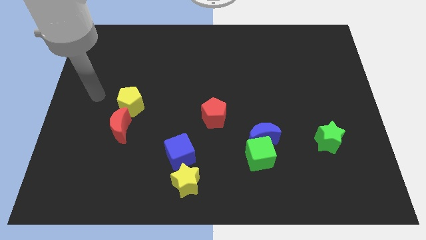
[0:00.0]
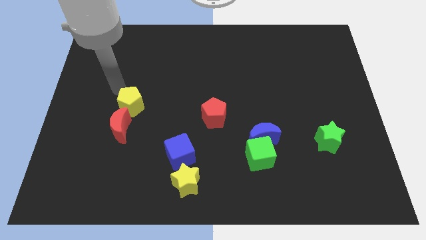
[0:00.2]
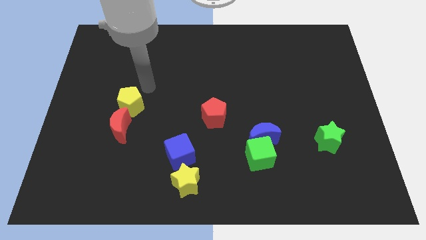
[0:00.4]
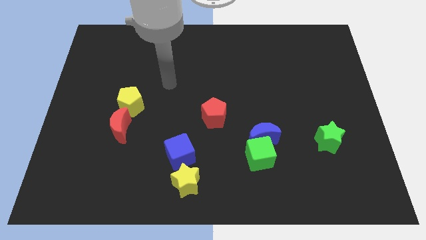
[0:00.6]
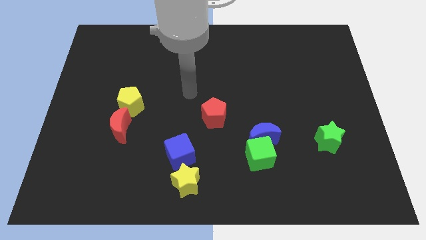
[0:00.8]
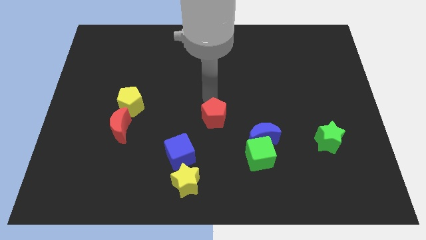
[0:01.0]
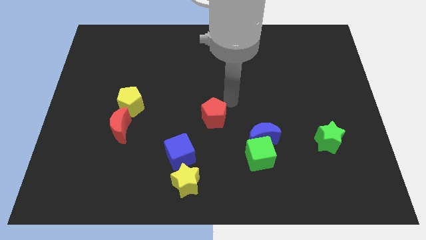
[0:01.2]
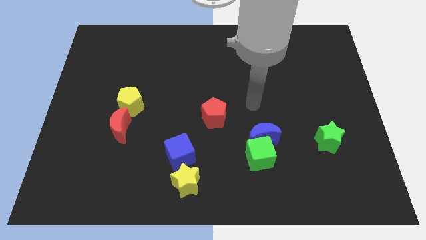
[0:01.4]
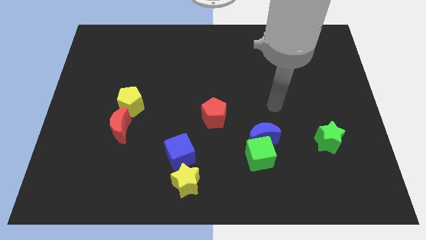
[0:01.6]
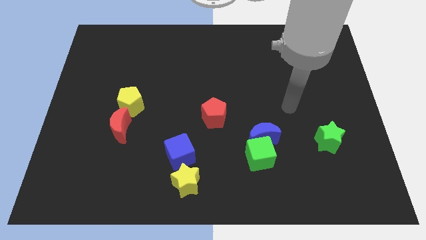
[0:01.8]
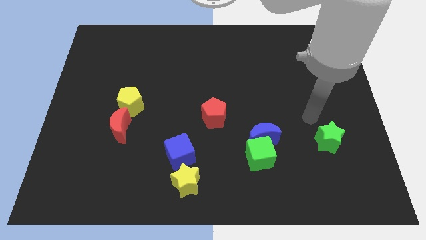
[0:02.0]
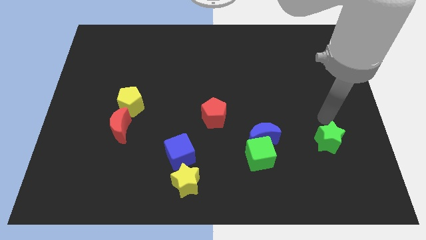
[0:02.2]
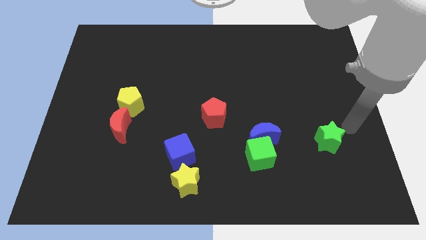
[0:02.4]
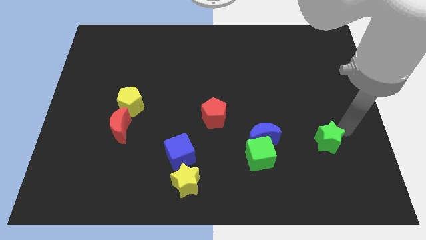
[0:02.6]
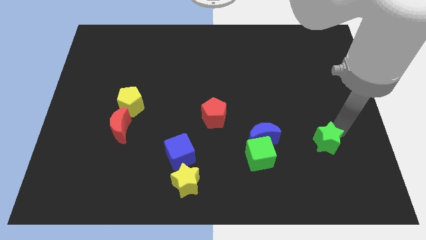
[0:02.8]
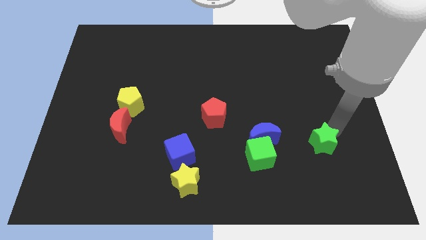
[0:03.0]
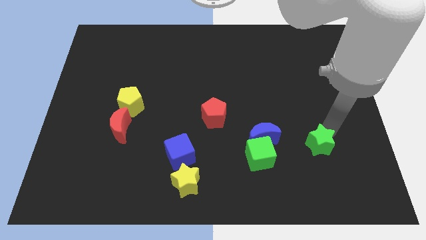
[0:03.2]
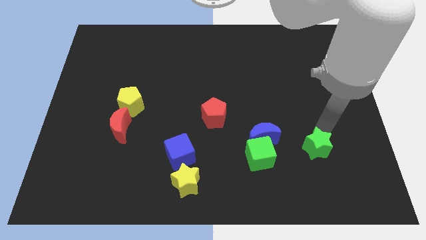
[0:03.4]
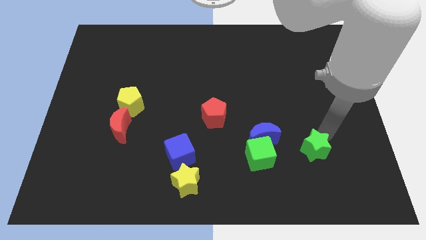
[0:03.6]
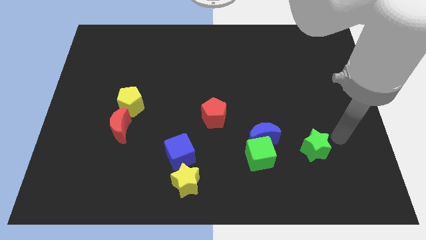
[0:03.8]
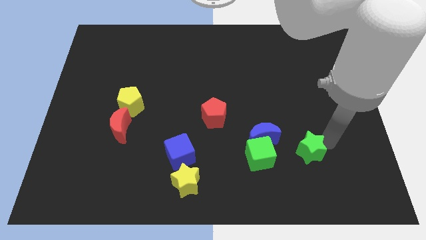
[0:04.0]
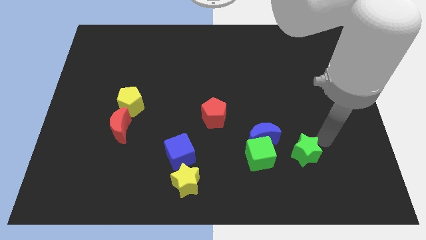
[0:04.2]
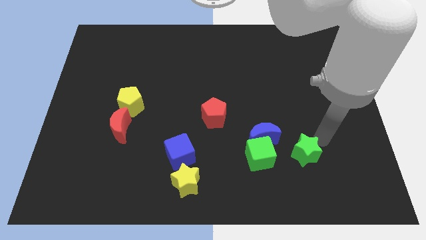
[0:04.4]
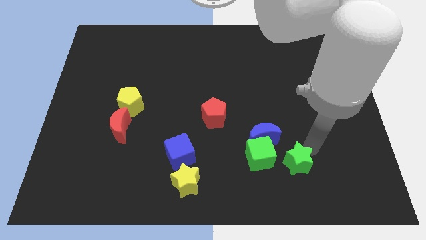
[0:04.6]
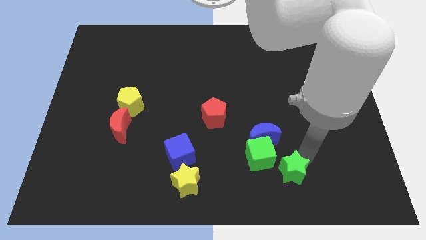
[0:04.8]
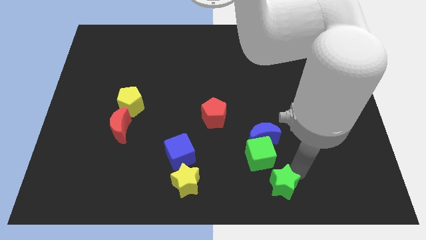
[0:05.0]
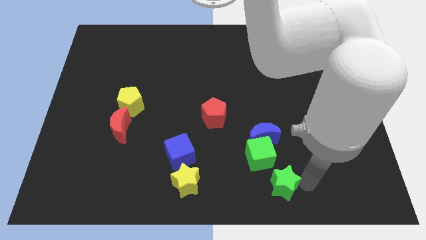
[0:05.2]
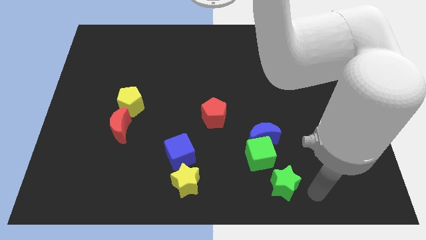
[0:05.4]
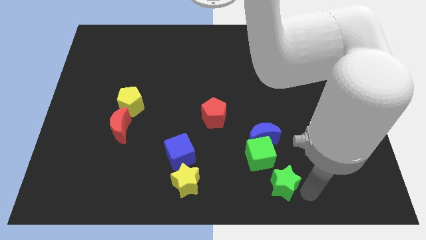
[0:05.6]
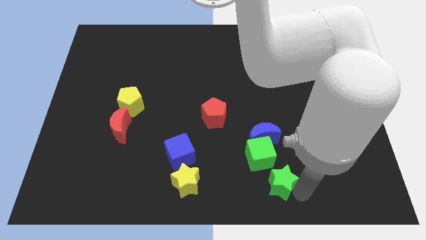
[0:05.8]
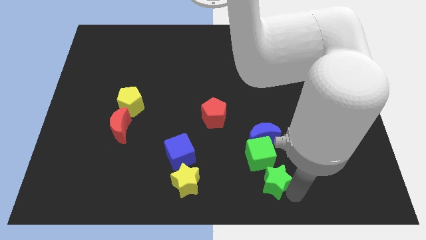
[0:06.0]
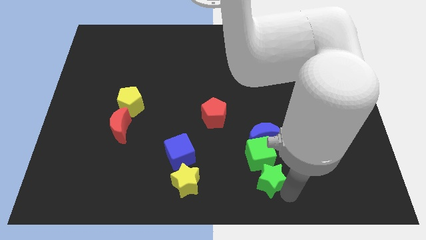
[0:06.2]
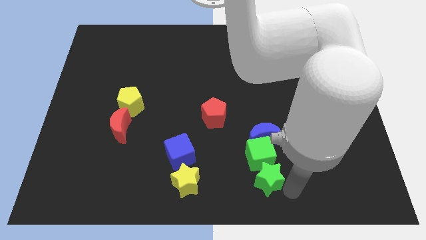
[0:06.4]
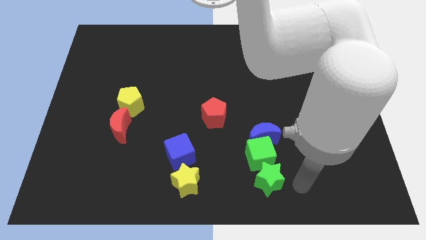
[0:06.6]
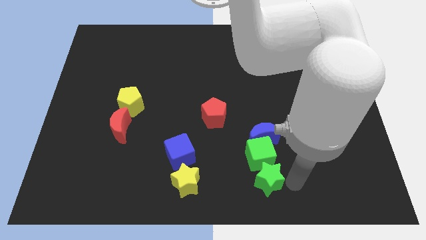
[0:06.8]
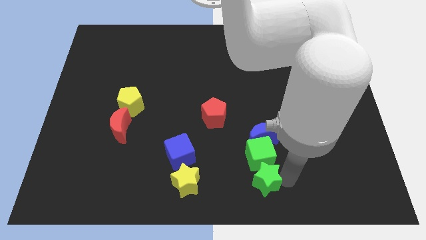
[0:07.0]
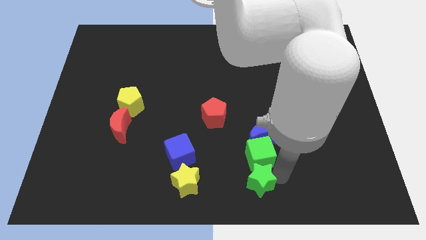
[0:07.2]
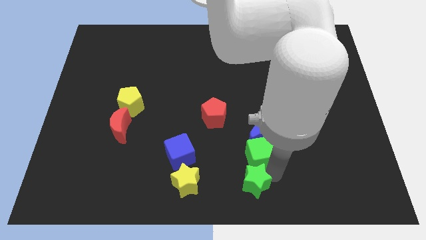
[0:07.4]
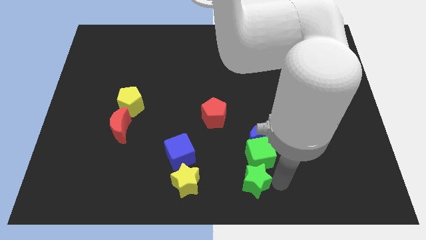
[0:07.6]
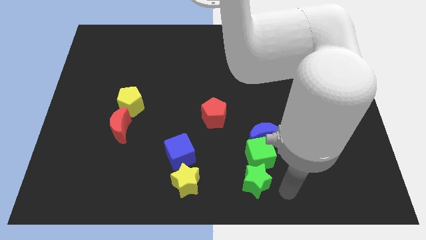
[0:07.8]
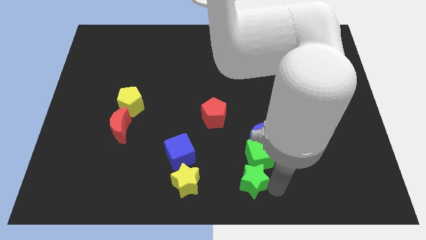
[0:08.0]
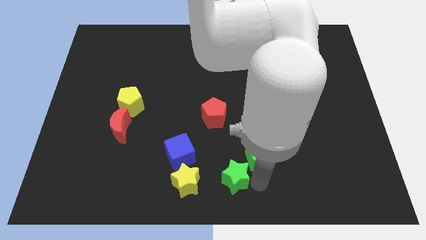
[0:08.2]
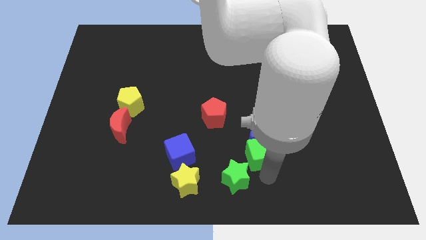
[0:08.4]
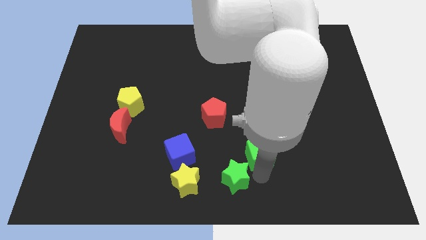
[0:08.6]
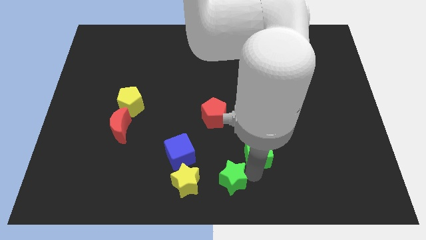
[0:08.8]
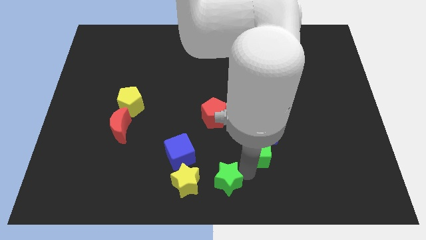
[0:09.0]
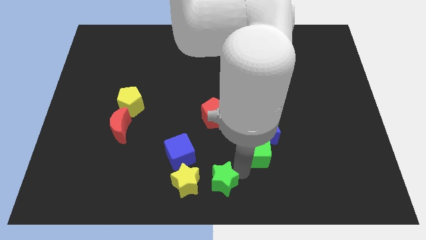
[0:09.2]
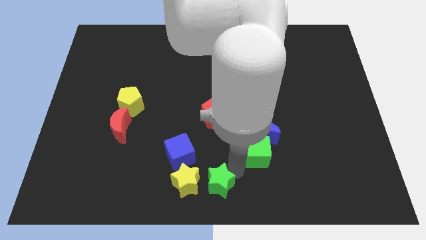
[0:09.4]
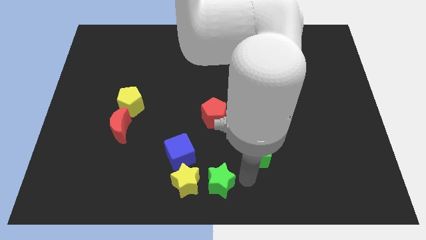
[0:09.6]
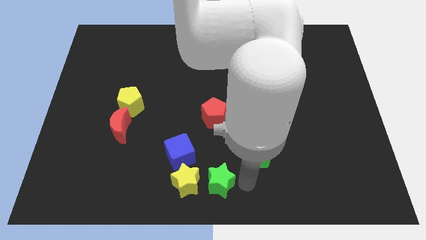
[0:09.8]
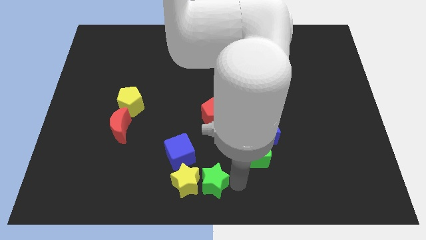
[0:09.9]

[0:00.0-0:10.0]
push the green star close to the yellow star

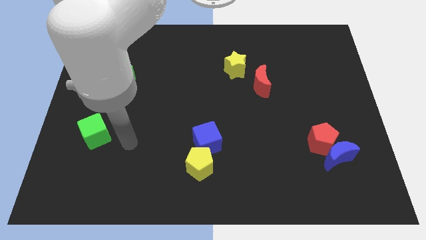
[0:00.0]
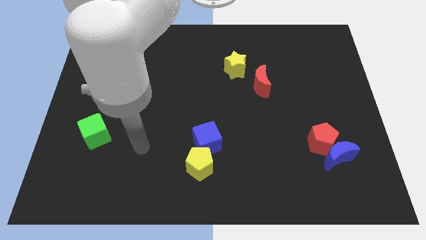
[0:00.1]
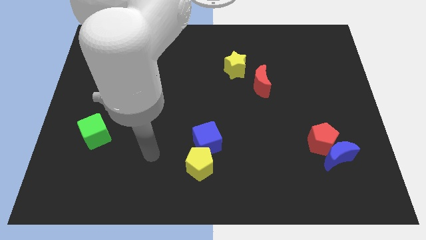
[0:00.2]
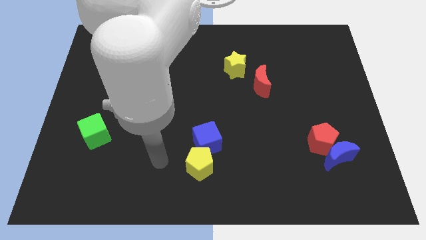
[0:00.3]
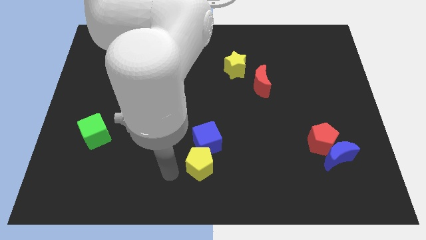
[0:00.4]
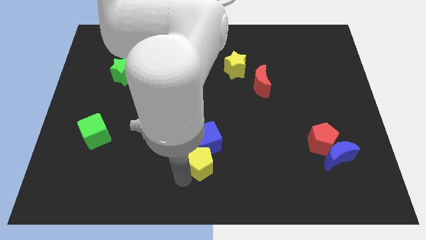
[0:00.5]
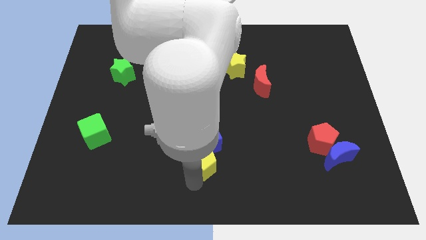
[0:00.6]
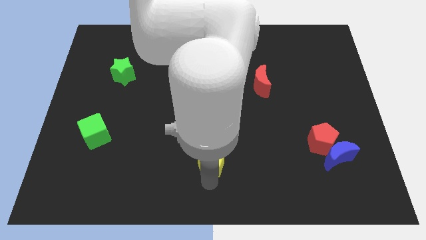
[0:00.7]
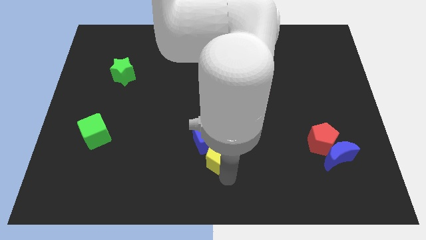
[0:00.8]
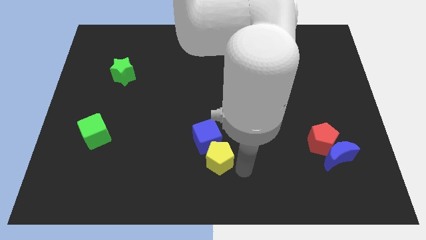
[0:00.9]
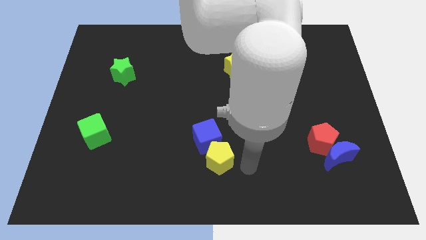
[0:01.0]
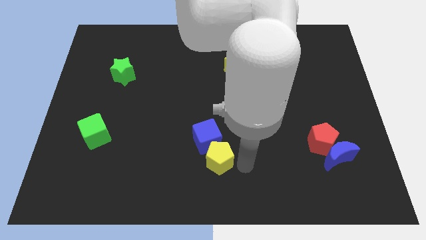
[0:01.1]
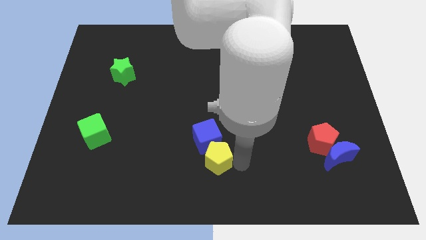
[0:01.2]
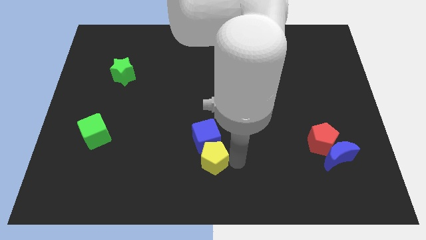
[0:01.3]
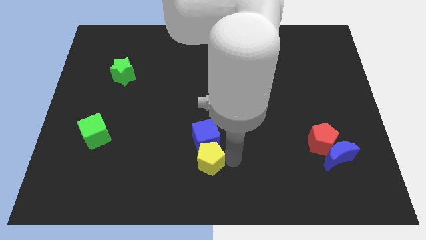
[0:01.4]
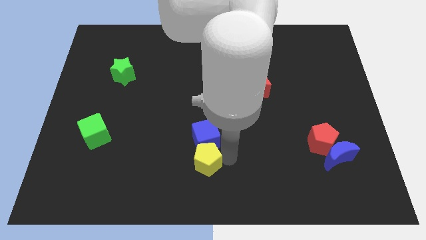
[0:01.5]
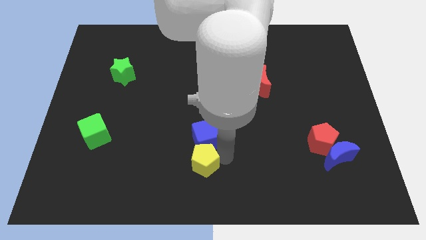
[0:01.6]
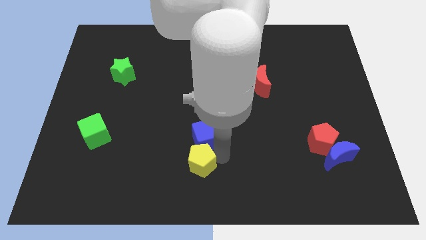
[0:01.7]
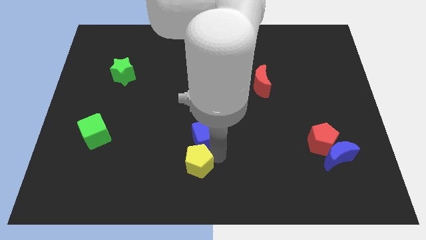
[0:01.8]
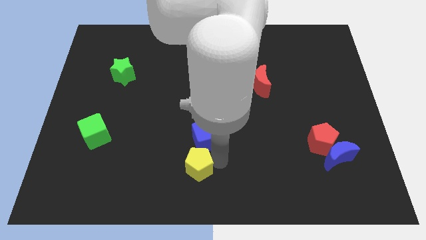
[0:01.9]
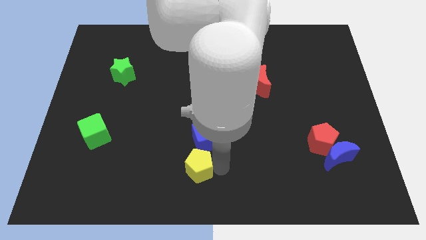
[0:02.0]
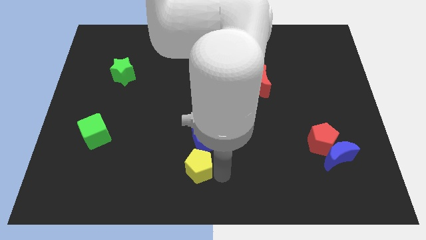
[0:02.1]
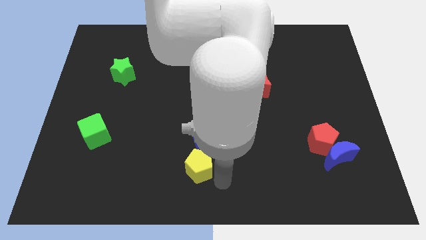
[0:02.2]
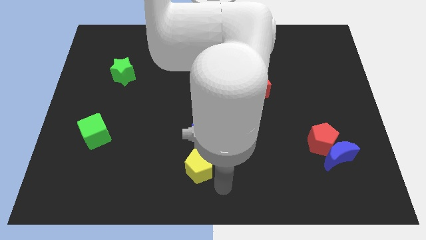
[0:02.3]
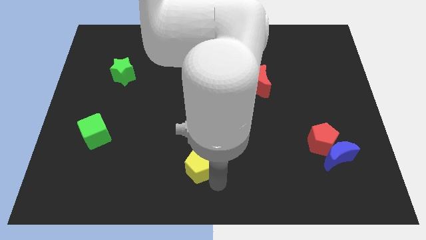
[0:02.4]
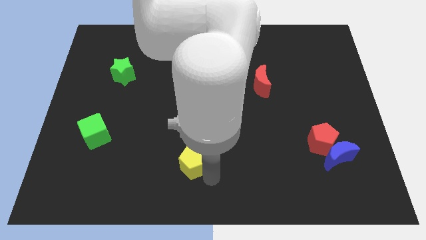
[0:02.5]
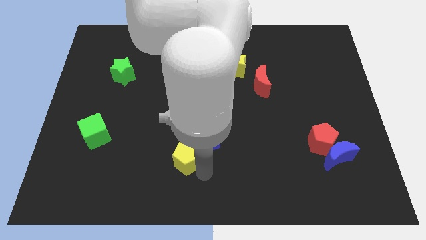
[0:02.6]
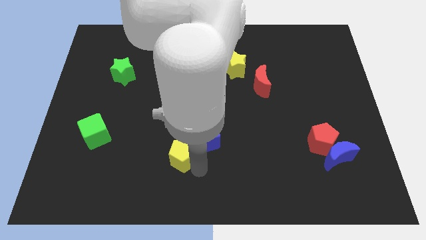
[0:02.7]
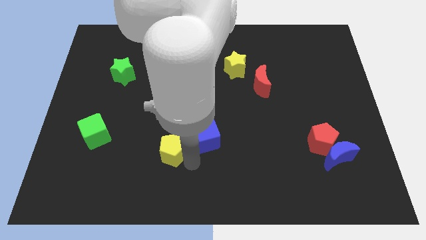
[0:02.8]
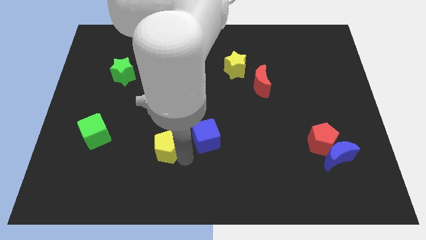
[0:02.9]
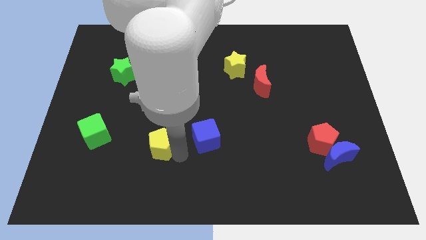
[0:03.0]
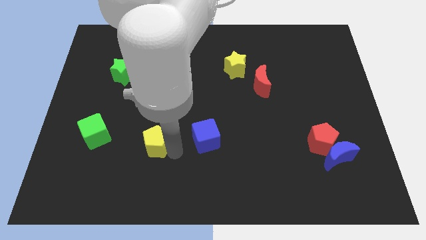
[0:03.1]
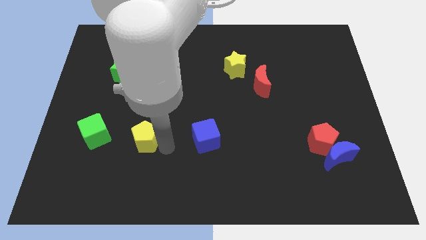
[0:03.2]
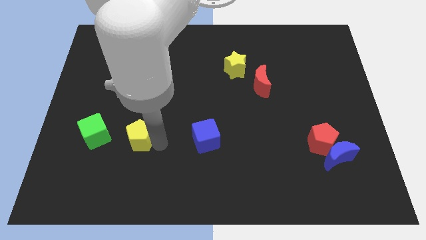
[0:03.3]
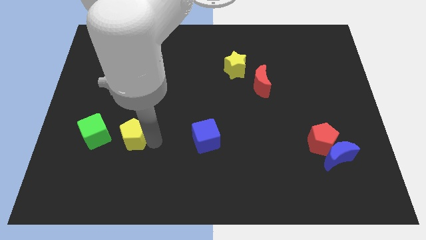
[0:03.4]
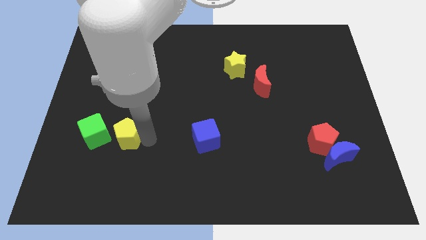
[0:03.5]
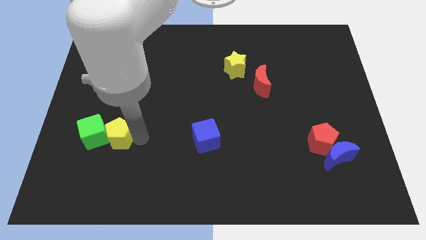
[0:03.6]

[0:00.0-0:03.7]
put the yellow pentagon towards the green cube
